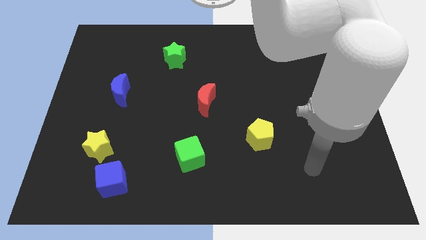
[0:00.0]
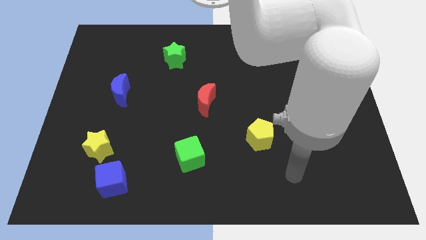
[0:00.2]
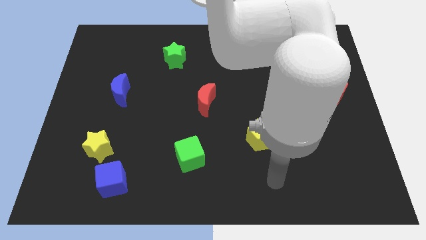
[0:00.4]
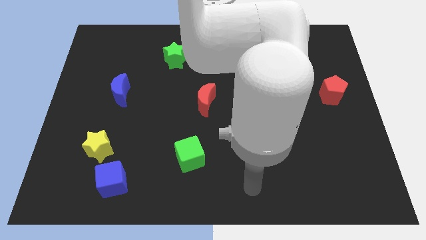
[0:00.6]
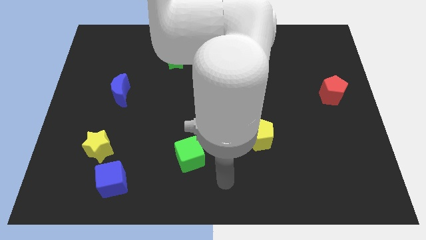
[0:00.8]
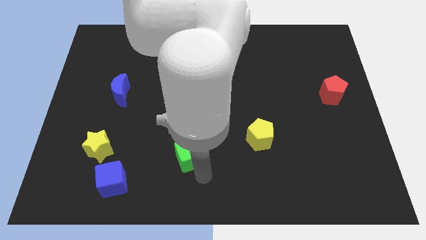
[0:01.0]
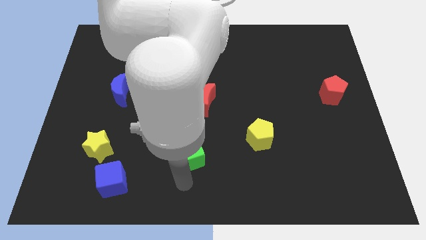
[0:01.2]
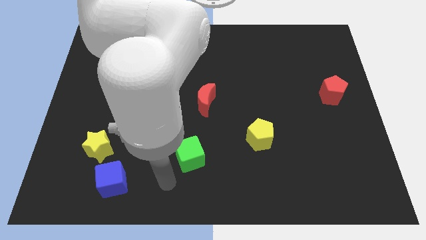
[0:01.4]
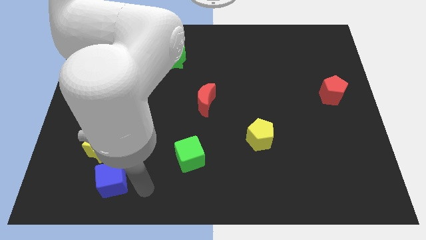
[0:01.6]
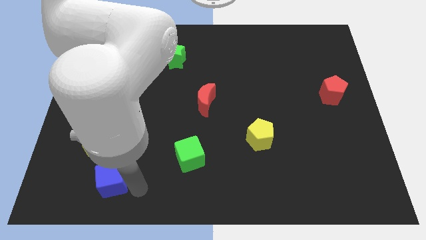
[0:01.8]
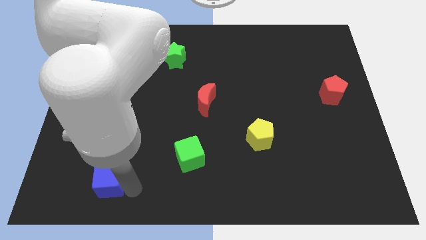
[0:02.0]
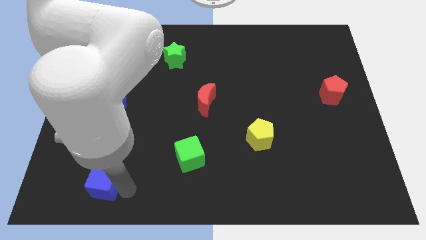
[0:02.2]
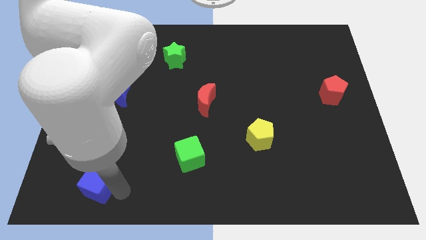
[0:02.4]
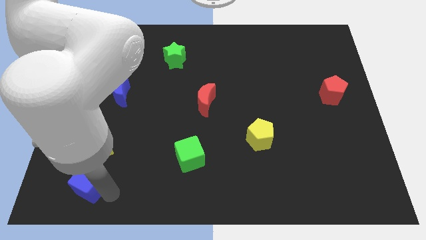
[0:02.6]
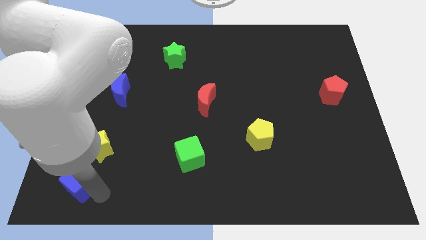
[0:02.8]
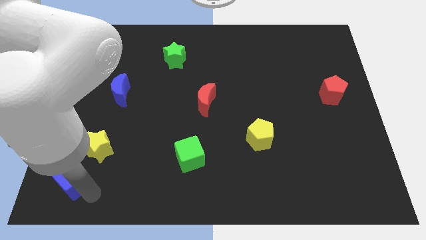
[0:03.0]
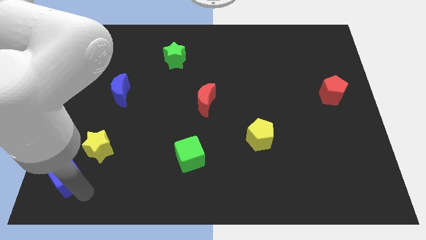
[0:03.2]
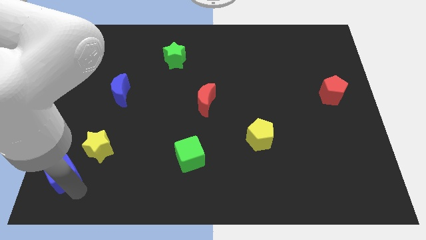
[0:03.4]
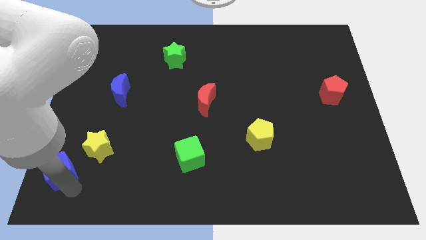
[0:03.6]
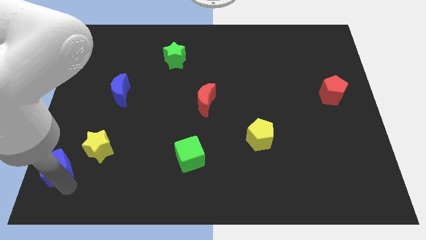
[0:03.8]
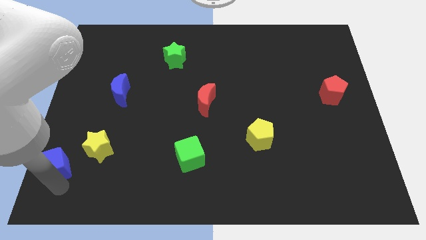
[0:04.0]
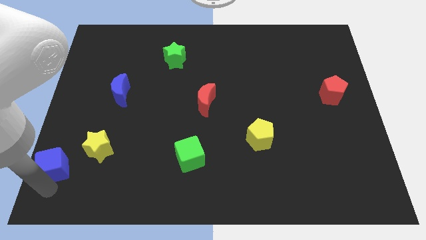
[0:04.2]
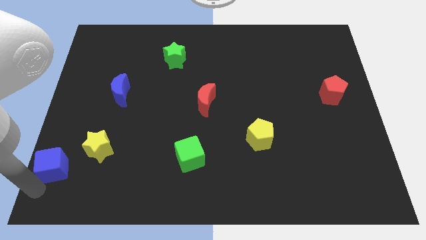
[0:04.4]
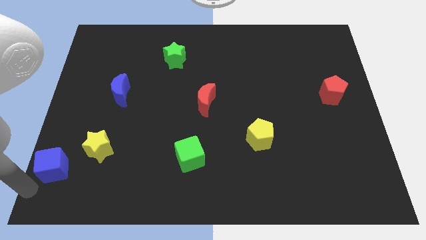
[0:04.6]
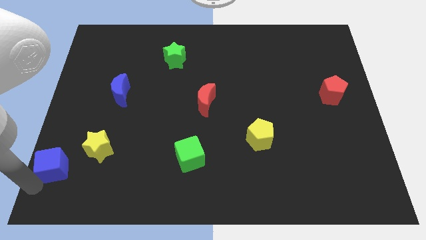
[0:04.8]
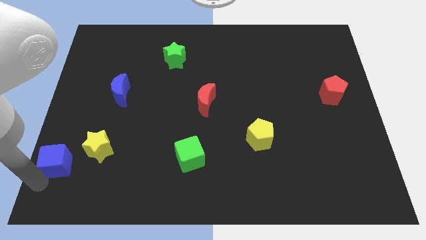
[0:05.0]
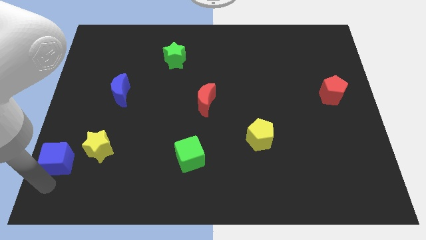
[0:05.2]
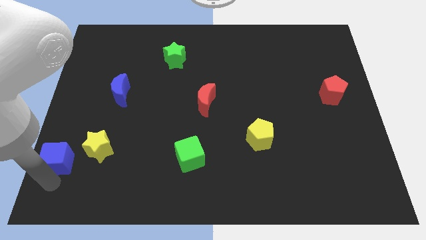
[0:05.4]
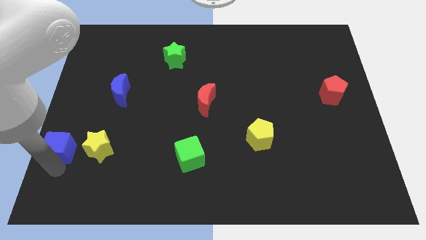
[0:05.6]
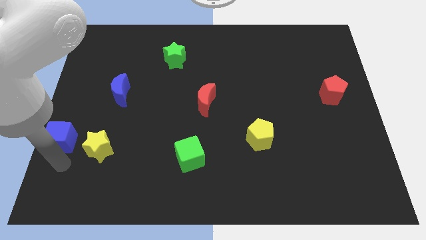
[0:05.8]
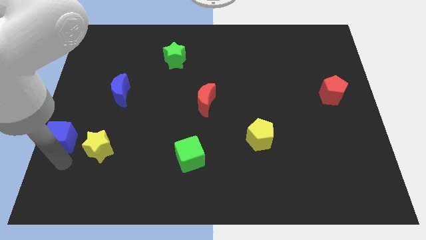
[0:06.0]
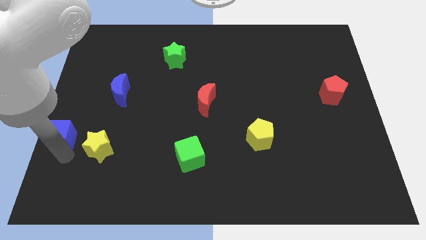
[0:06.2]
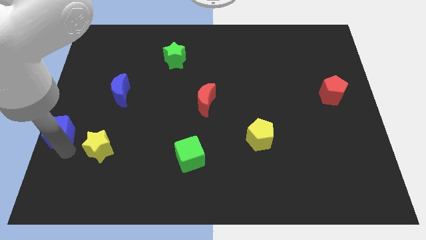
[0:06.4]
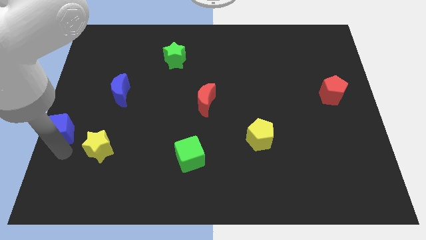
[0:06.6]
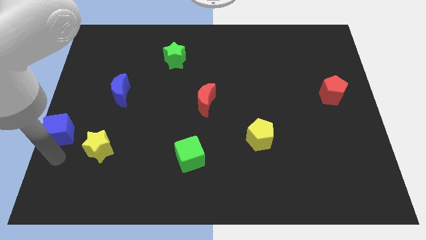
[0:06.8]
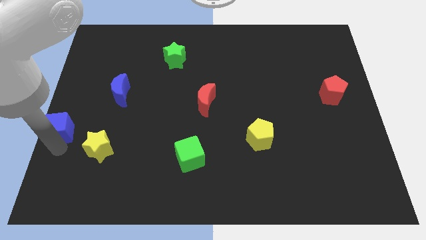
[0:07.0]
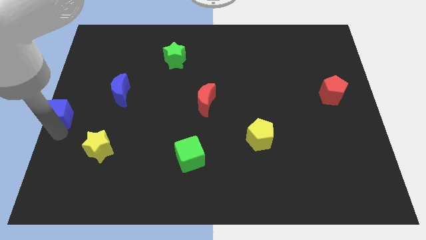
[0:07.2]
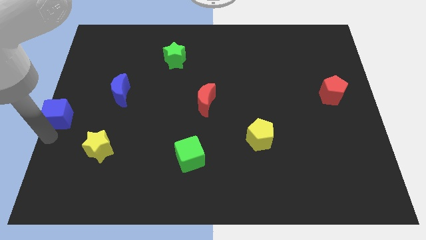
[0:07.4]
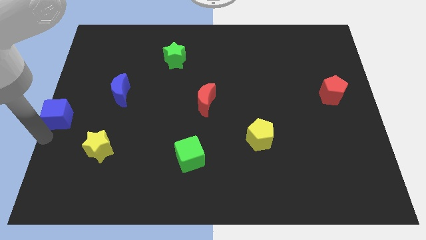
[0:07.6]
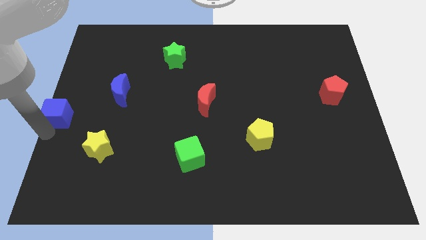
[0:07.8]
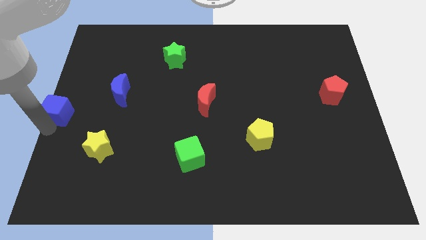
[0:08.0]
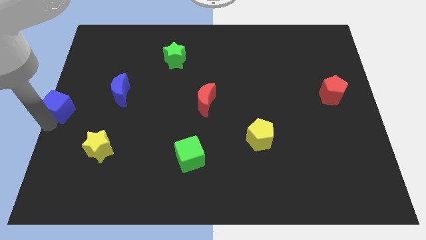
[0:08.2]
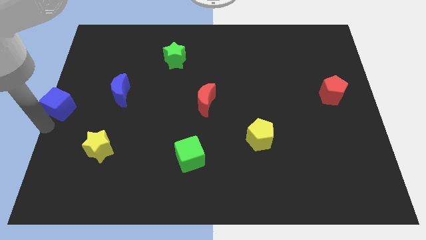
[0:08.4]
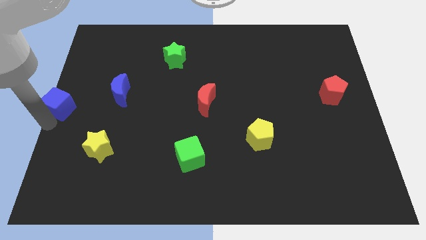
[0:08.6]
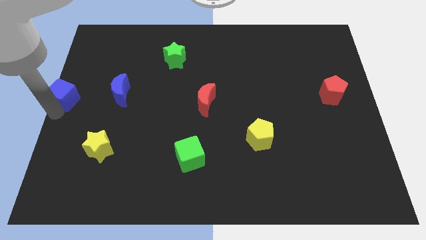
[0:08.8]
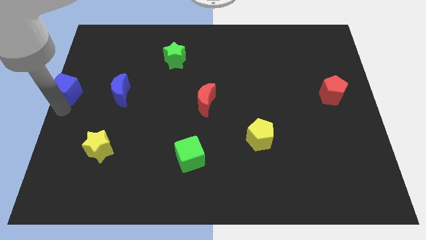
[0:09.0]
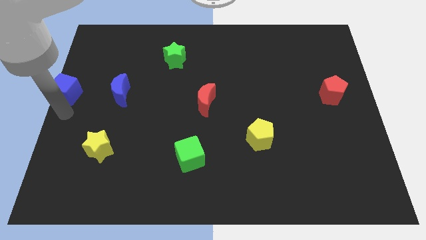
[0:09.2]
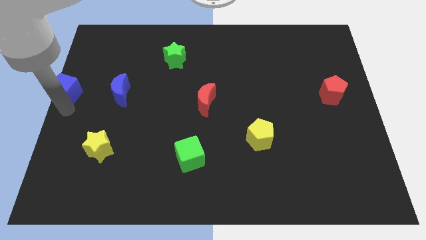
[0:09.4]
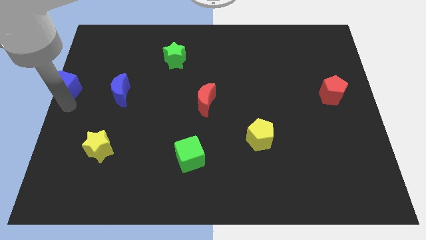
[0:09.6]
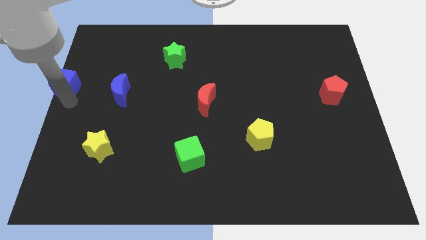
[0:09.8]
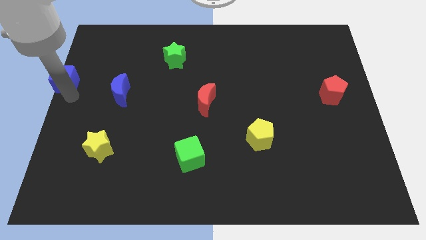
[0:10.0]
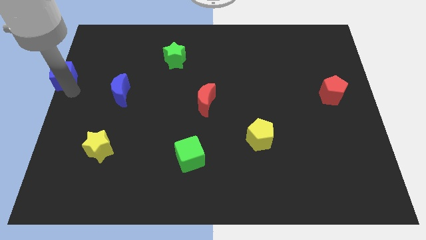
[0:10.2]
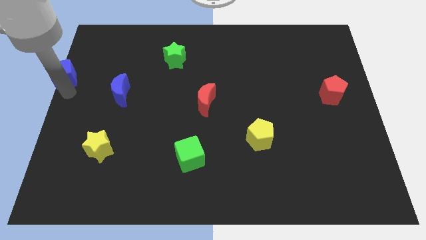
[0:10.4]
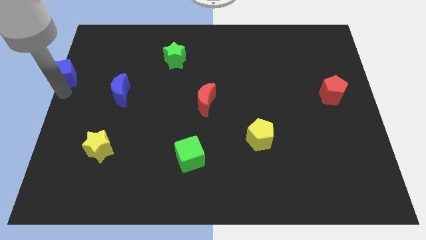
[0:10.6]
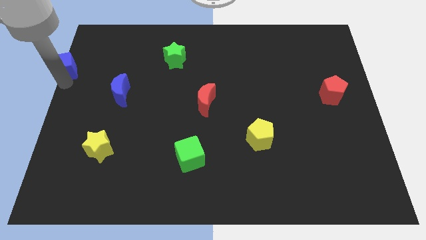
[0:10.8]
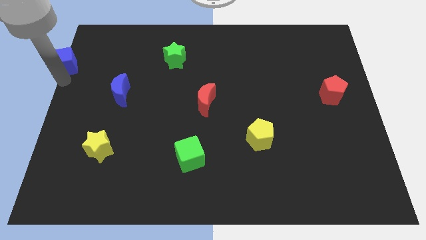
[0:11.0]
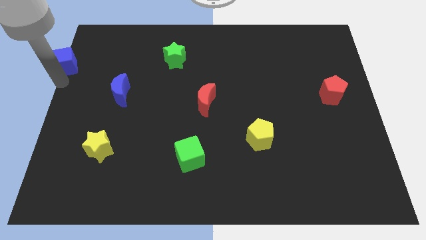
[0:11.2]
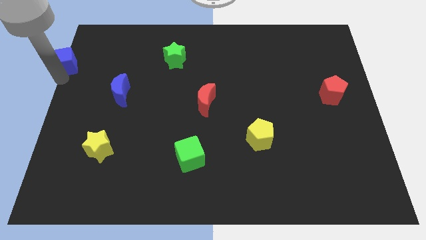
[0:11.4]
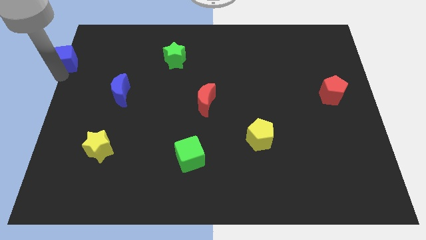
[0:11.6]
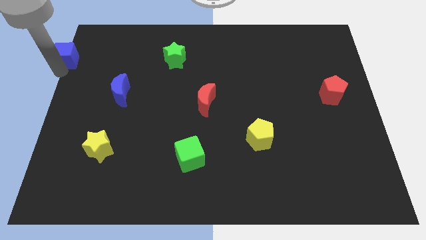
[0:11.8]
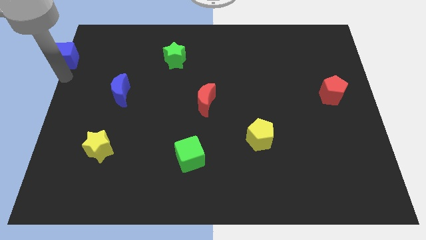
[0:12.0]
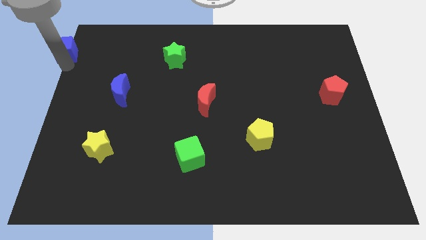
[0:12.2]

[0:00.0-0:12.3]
push the blue cube to the top left of the board
